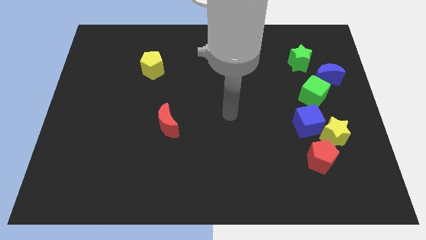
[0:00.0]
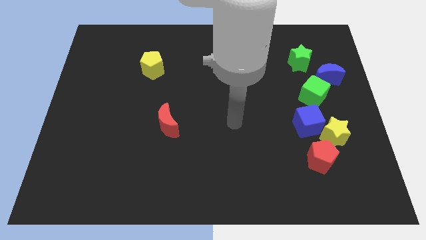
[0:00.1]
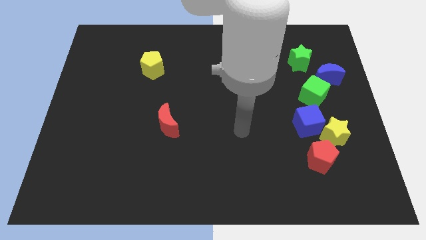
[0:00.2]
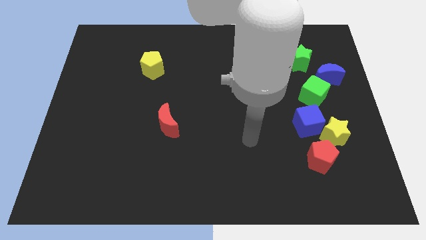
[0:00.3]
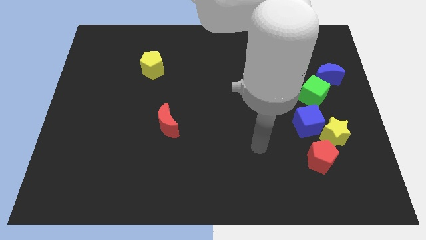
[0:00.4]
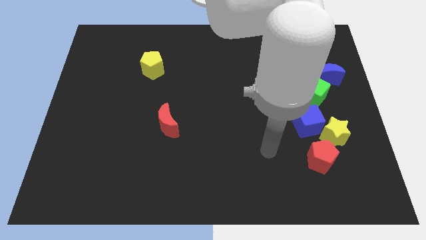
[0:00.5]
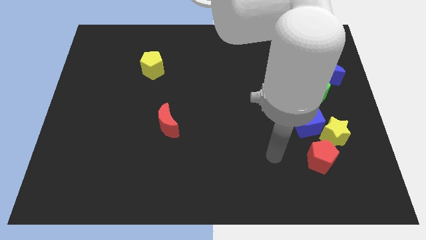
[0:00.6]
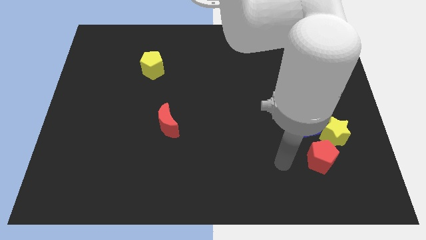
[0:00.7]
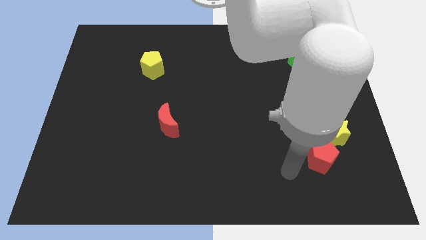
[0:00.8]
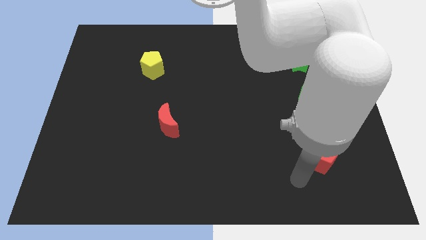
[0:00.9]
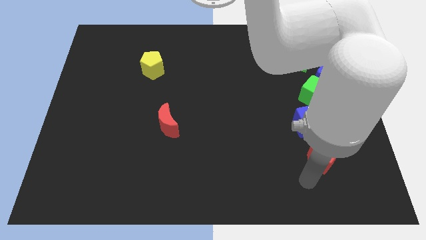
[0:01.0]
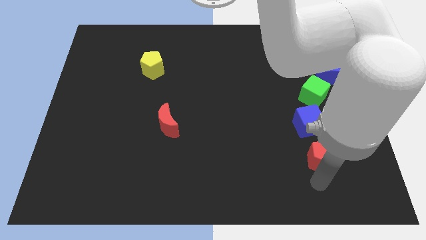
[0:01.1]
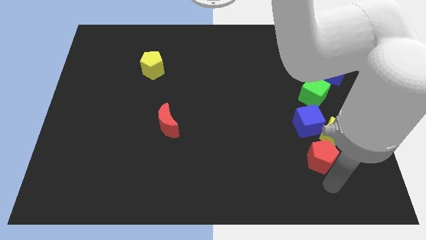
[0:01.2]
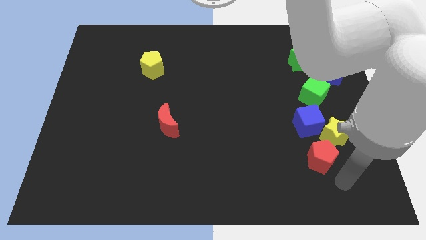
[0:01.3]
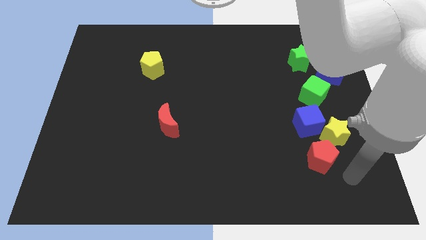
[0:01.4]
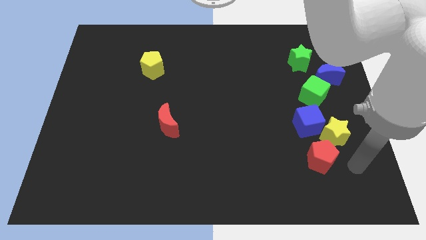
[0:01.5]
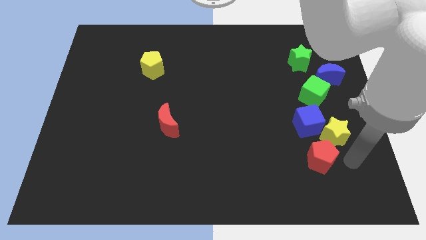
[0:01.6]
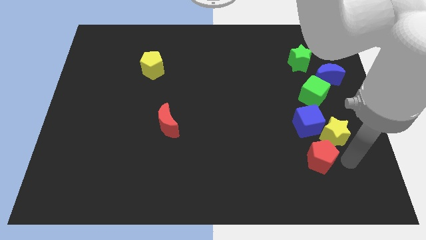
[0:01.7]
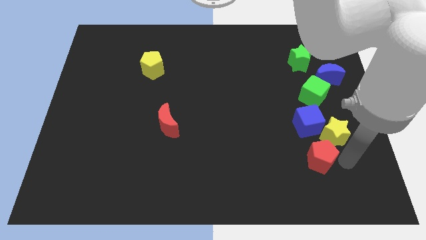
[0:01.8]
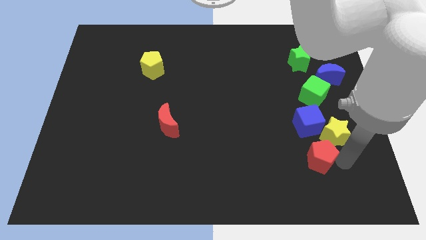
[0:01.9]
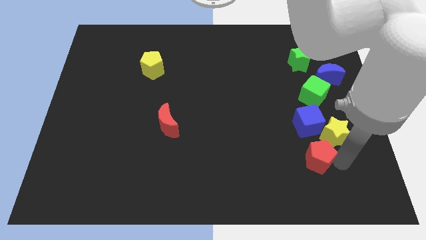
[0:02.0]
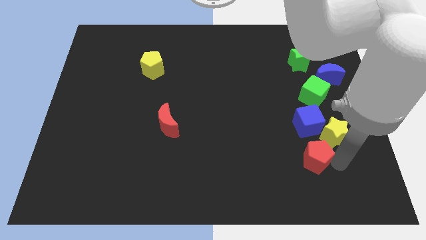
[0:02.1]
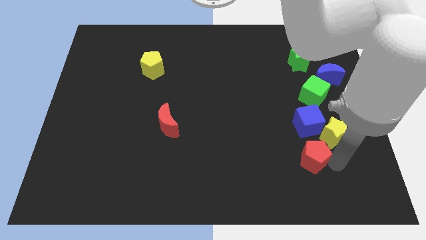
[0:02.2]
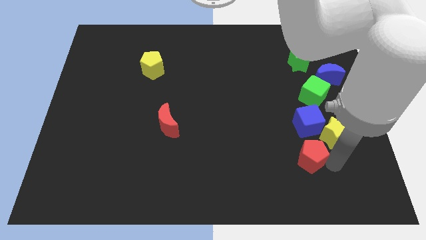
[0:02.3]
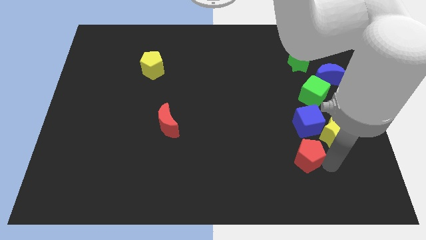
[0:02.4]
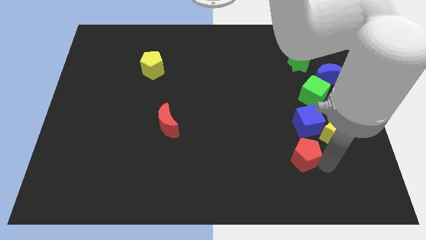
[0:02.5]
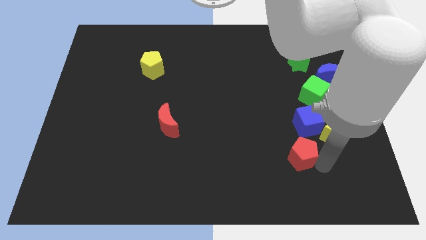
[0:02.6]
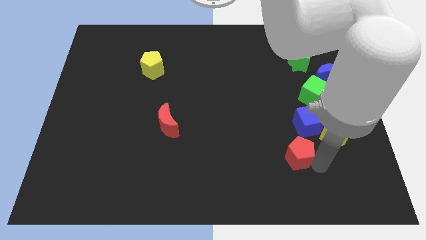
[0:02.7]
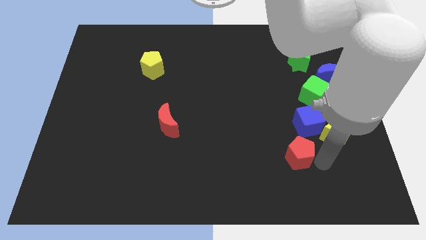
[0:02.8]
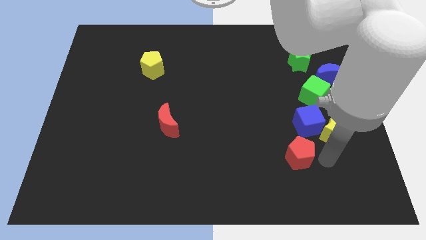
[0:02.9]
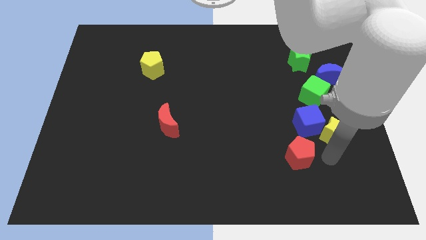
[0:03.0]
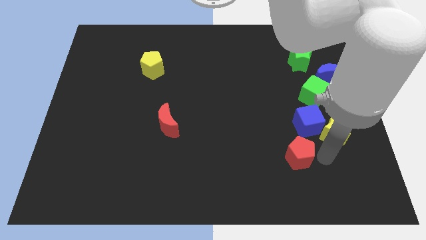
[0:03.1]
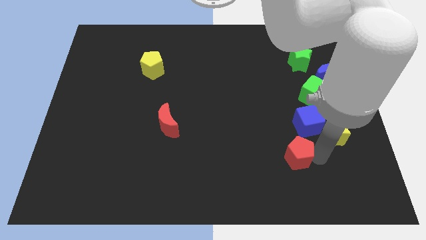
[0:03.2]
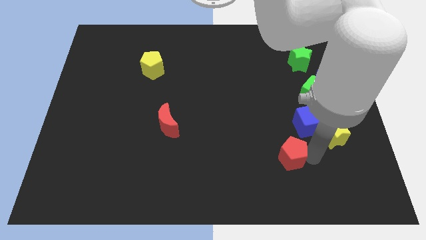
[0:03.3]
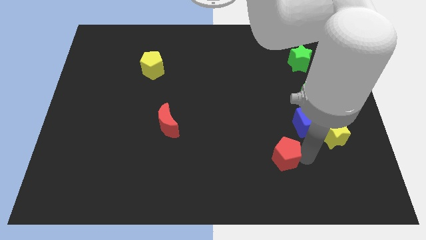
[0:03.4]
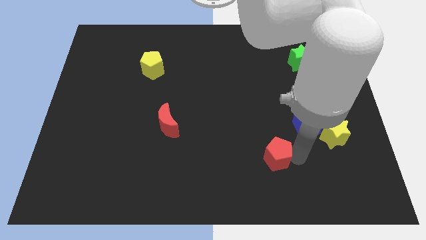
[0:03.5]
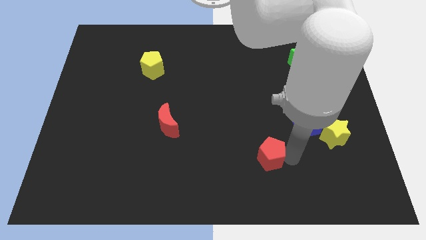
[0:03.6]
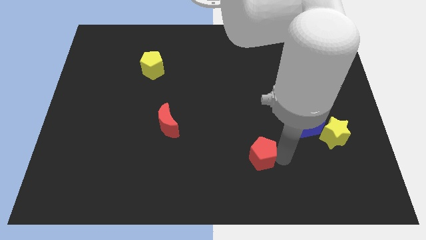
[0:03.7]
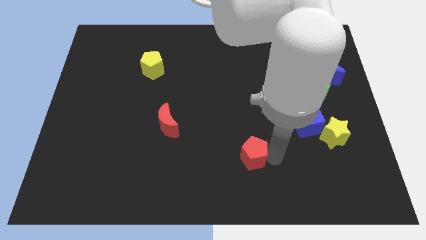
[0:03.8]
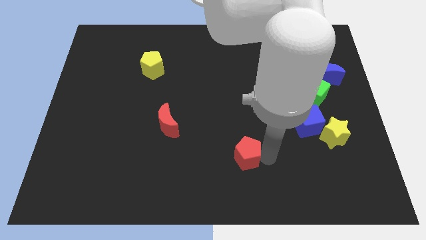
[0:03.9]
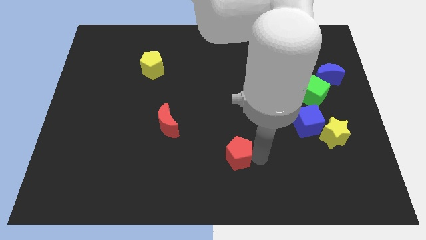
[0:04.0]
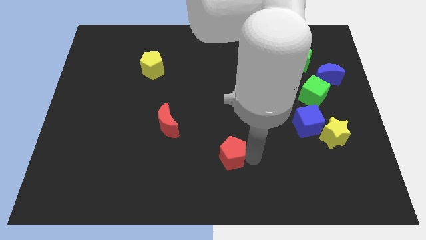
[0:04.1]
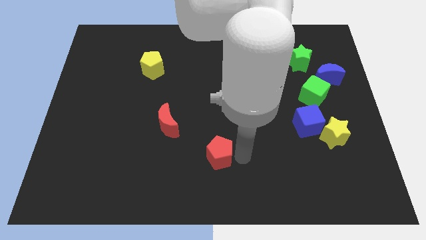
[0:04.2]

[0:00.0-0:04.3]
push the red pentagon to the left

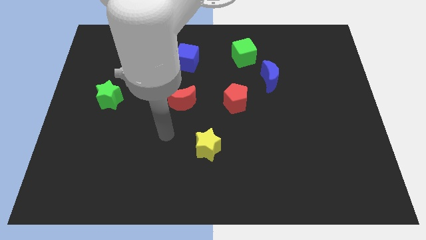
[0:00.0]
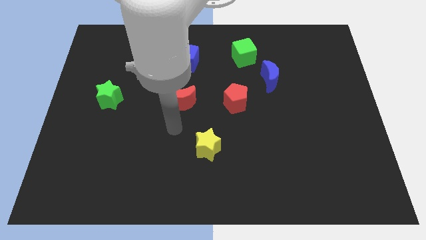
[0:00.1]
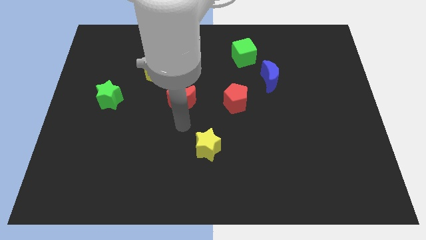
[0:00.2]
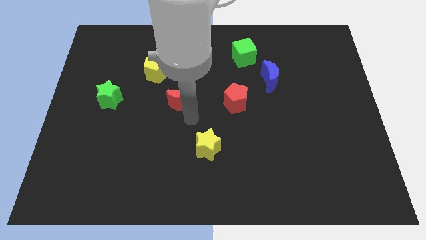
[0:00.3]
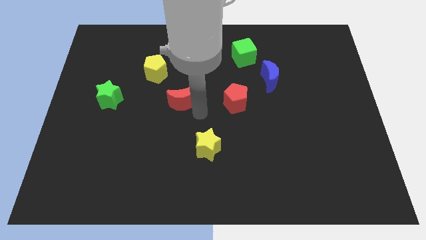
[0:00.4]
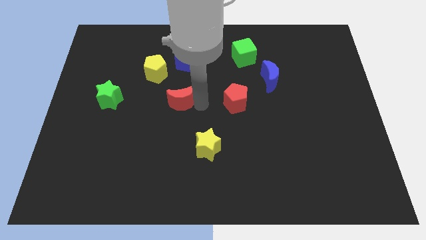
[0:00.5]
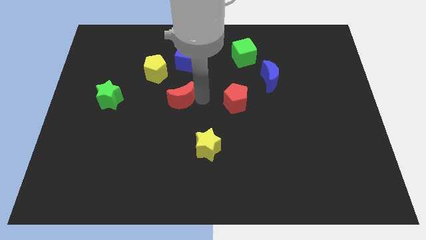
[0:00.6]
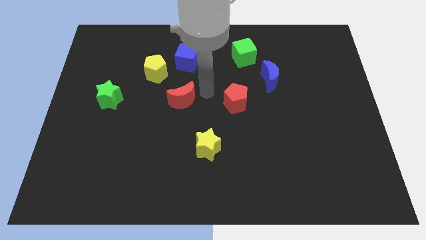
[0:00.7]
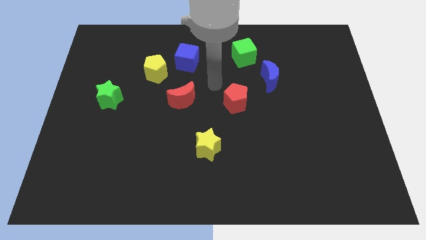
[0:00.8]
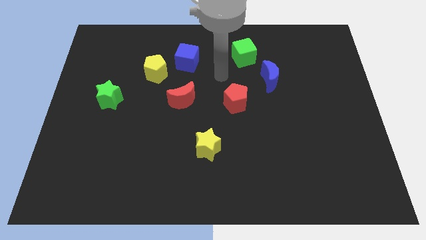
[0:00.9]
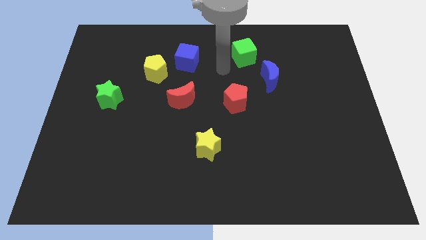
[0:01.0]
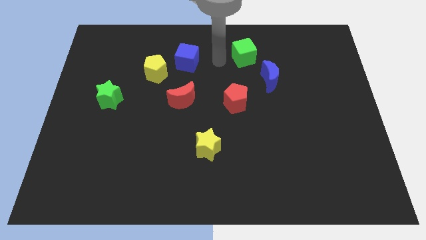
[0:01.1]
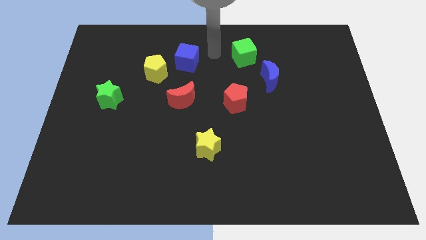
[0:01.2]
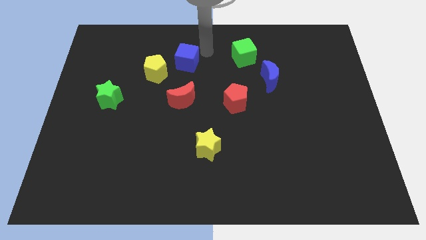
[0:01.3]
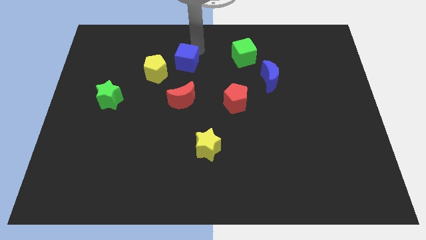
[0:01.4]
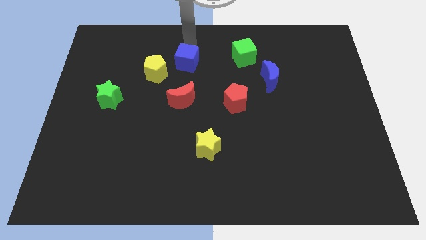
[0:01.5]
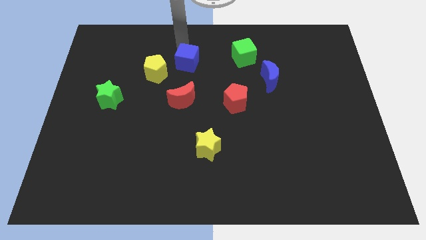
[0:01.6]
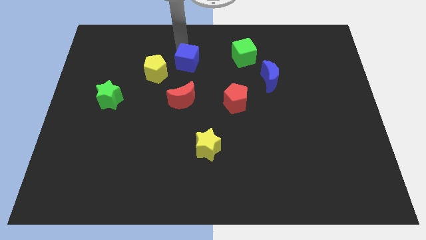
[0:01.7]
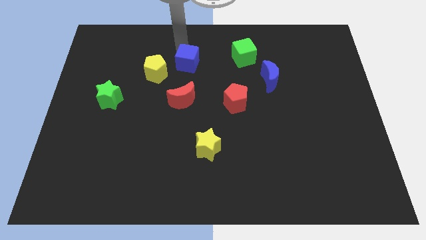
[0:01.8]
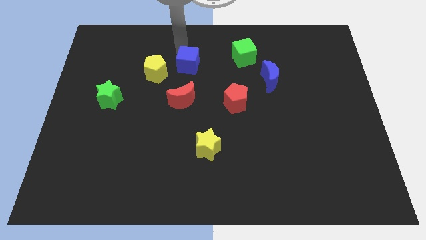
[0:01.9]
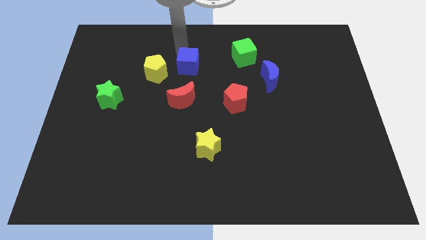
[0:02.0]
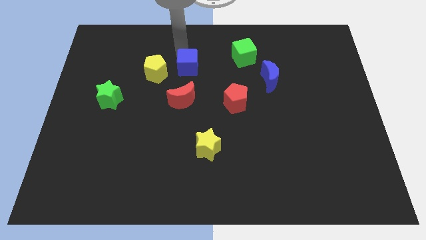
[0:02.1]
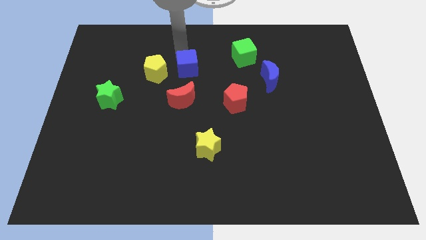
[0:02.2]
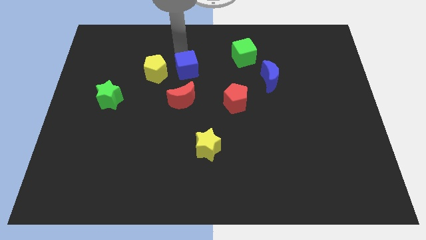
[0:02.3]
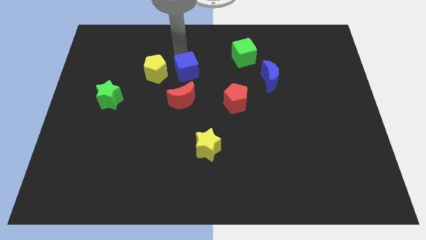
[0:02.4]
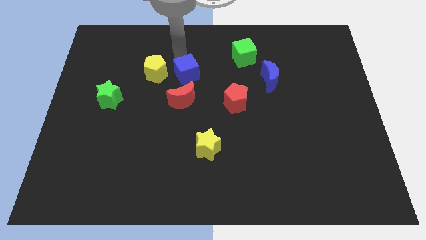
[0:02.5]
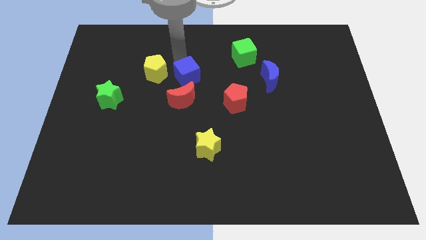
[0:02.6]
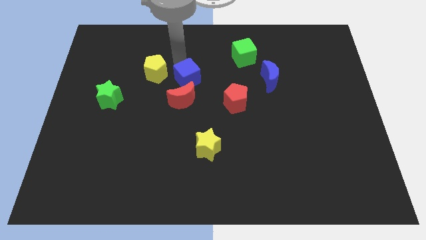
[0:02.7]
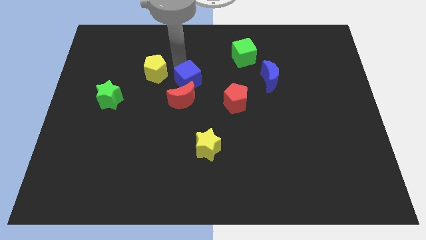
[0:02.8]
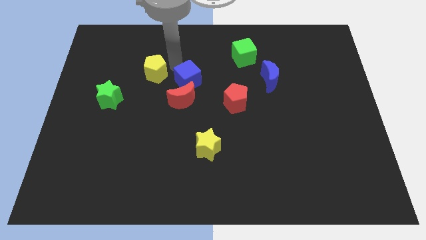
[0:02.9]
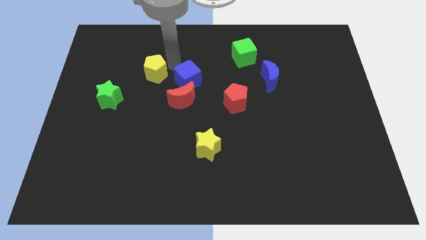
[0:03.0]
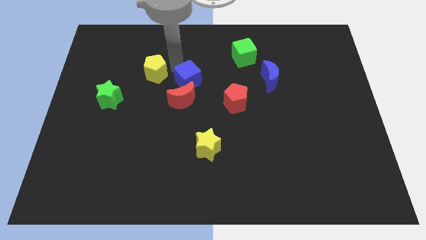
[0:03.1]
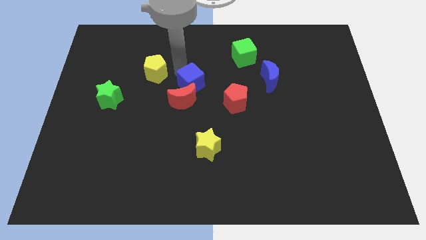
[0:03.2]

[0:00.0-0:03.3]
push the blue cube down somewhat

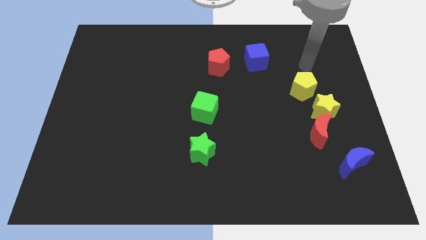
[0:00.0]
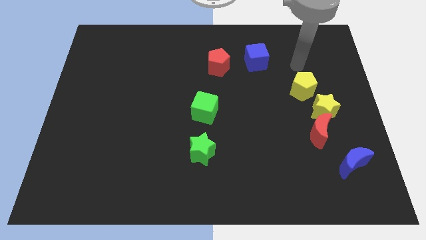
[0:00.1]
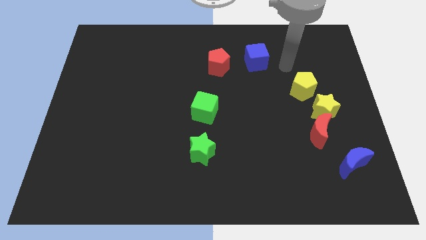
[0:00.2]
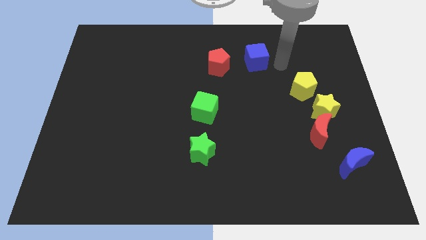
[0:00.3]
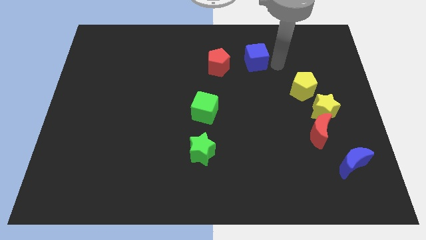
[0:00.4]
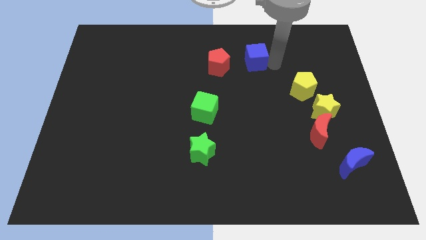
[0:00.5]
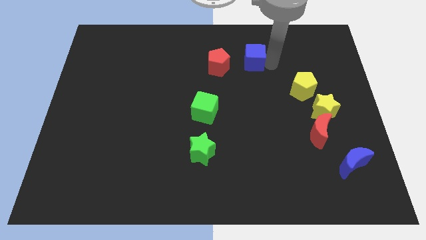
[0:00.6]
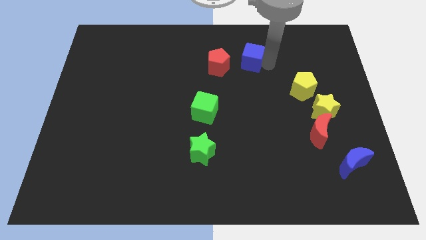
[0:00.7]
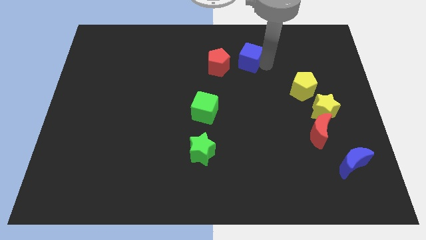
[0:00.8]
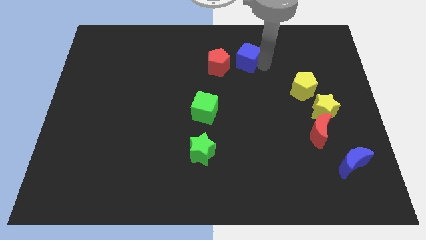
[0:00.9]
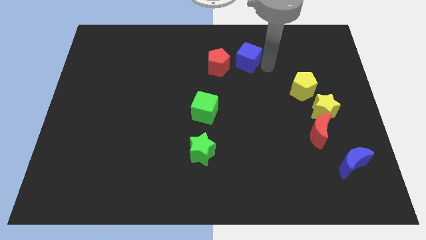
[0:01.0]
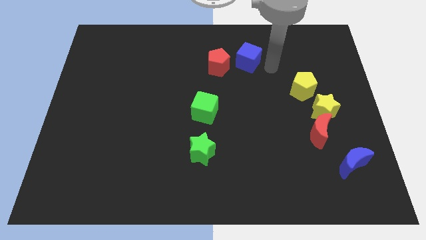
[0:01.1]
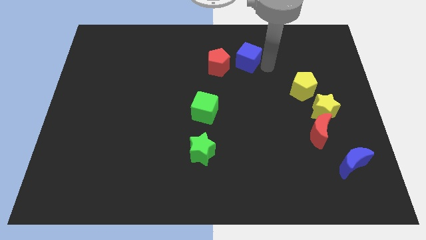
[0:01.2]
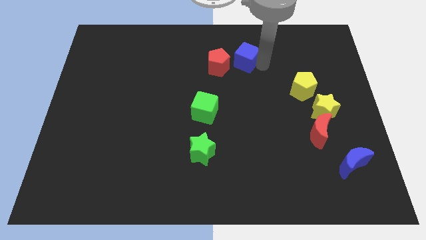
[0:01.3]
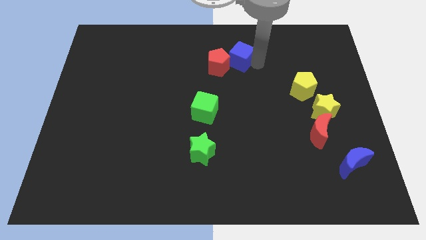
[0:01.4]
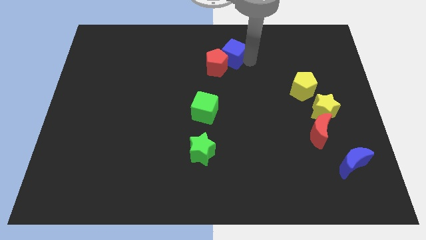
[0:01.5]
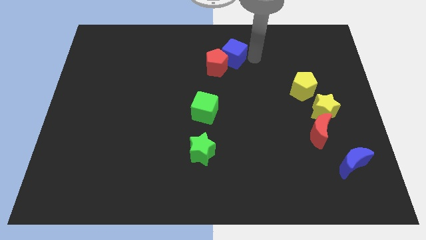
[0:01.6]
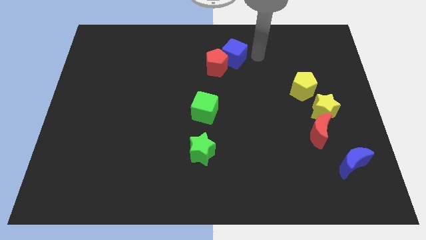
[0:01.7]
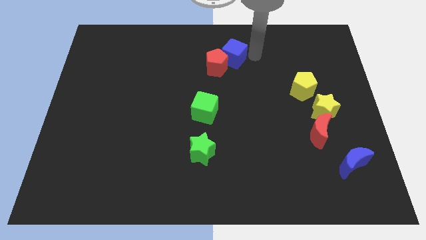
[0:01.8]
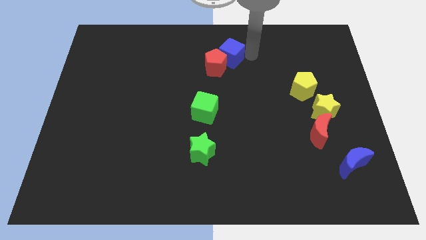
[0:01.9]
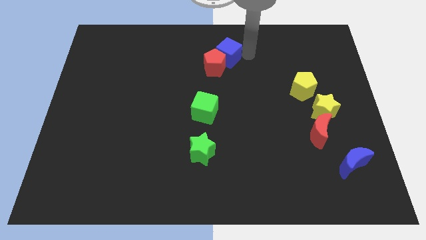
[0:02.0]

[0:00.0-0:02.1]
slide the blue cube slightly left
